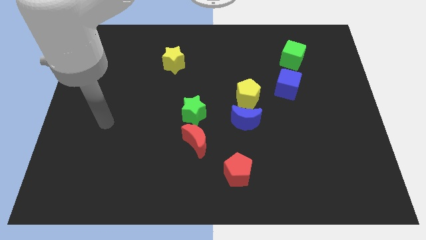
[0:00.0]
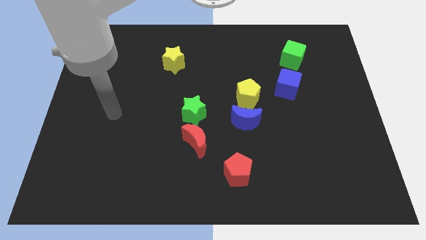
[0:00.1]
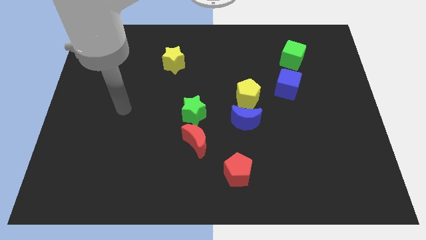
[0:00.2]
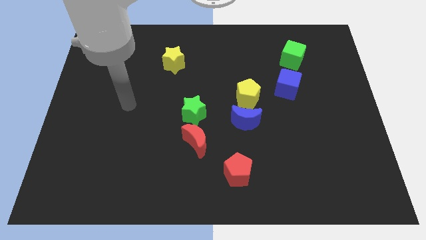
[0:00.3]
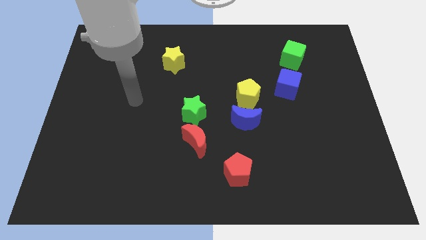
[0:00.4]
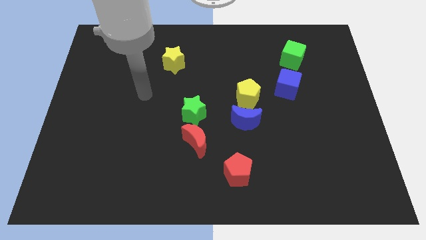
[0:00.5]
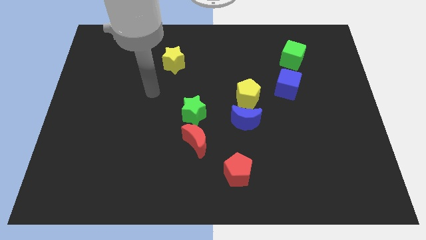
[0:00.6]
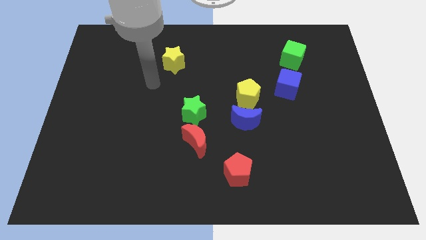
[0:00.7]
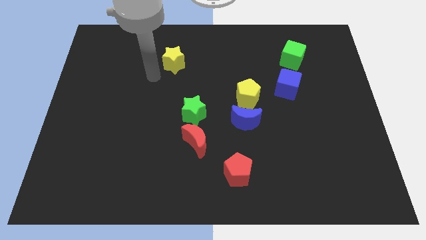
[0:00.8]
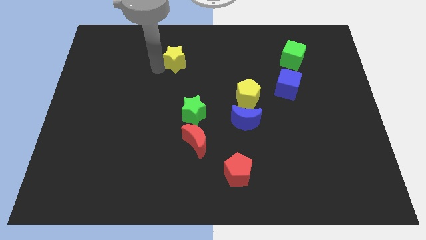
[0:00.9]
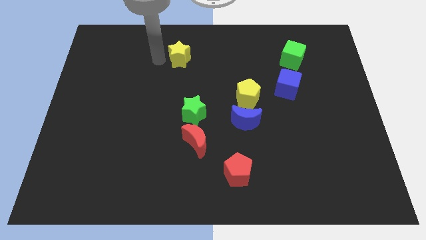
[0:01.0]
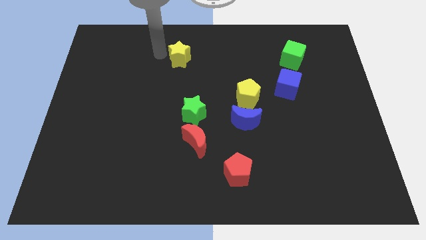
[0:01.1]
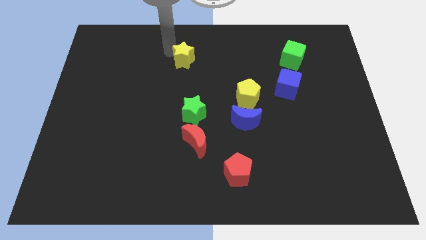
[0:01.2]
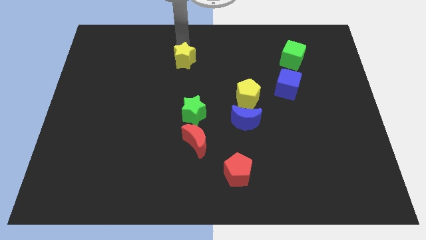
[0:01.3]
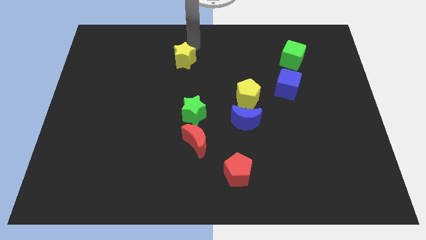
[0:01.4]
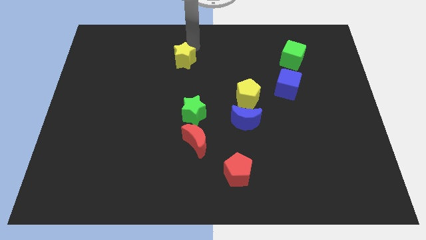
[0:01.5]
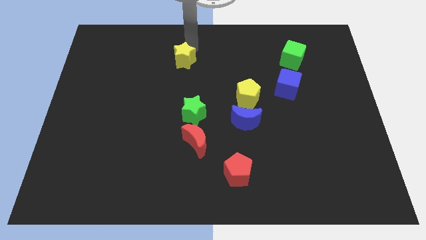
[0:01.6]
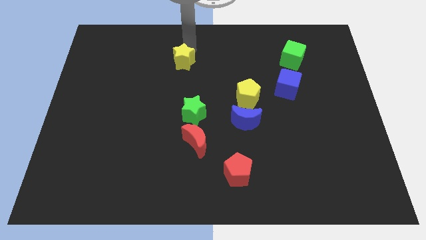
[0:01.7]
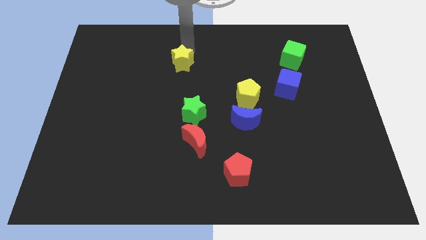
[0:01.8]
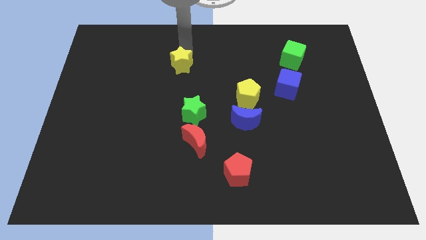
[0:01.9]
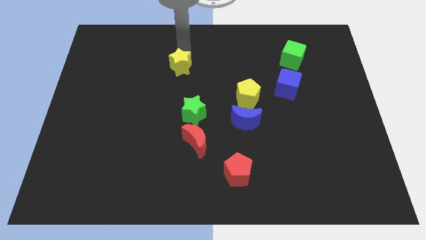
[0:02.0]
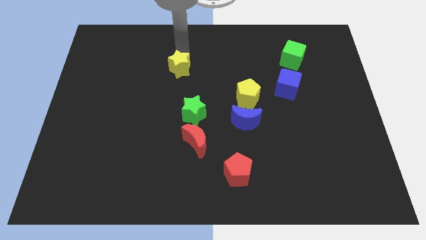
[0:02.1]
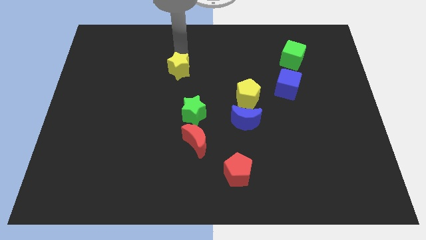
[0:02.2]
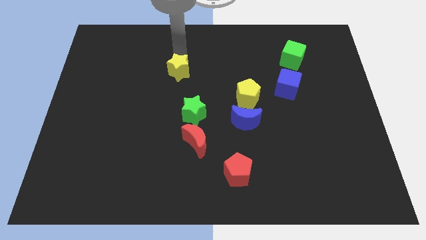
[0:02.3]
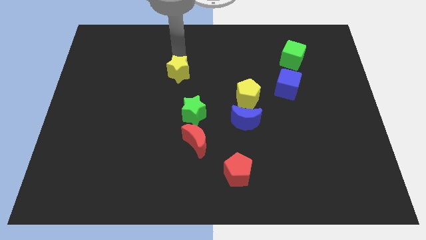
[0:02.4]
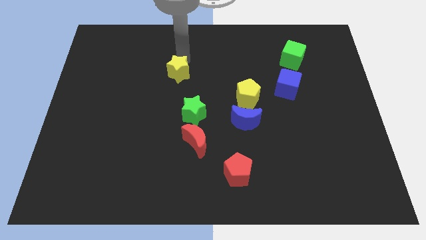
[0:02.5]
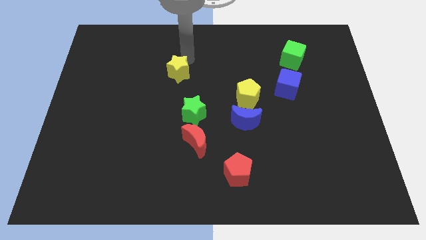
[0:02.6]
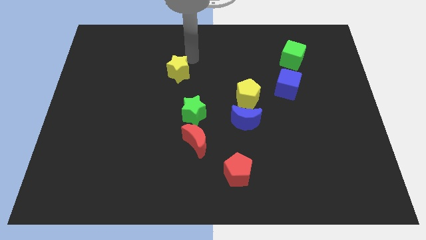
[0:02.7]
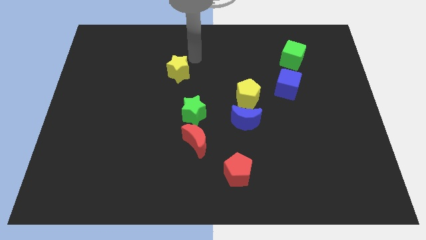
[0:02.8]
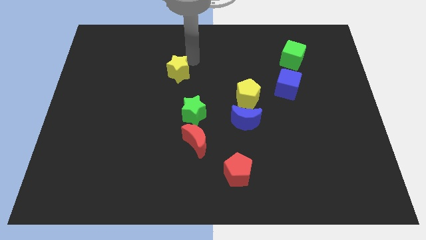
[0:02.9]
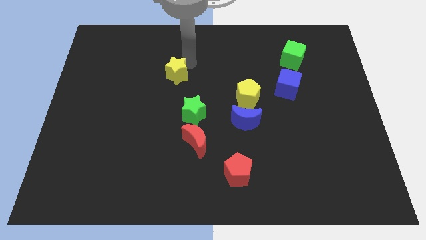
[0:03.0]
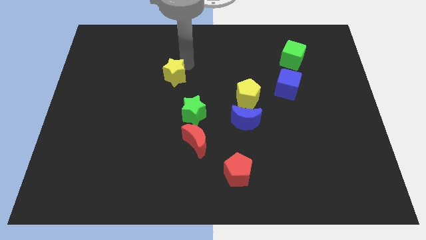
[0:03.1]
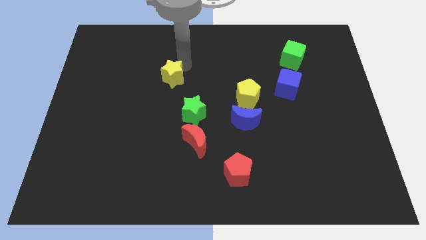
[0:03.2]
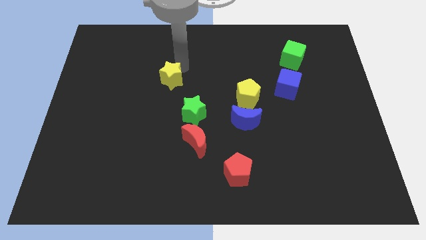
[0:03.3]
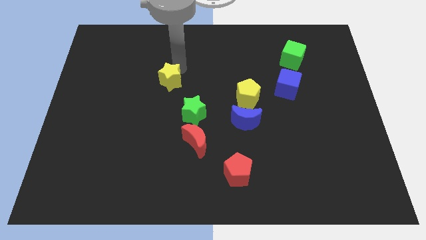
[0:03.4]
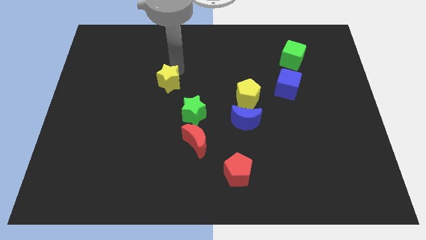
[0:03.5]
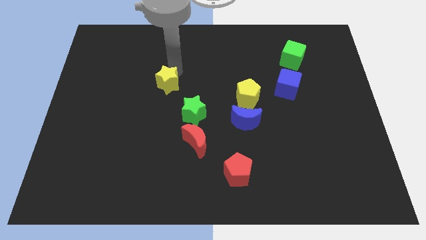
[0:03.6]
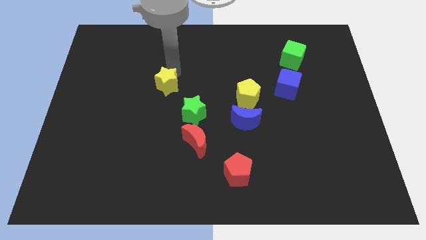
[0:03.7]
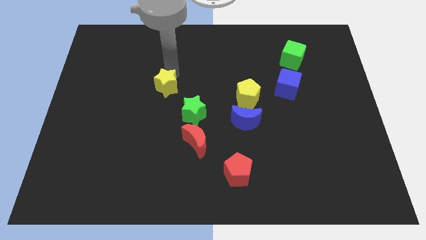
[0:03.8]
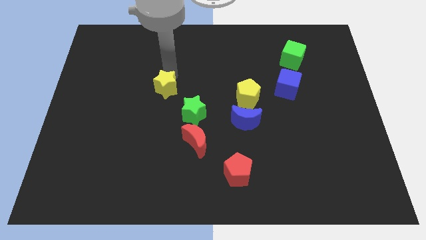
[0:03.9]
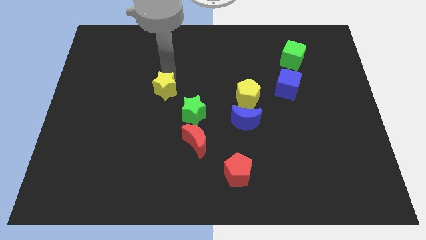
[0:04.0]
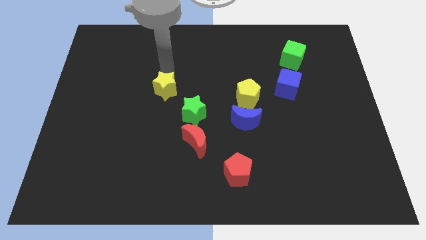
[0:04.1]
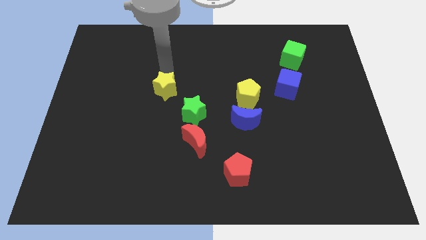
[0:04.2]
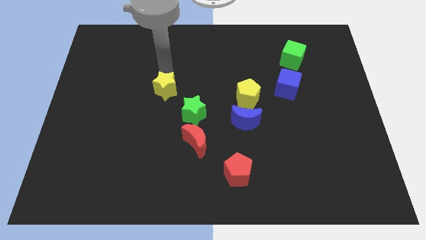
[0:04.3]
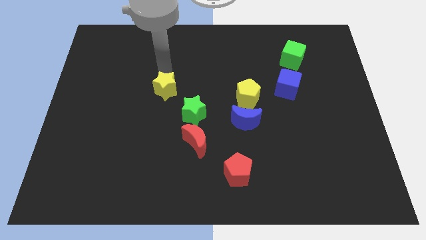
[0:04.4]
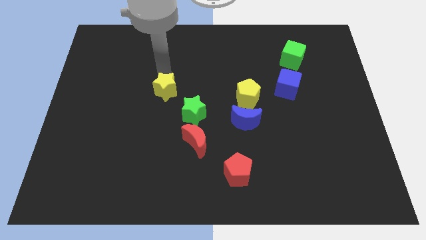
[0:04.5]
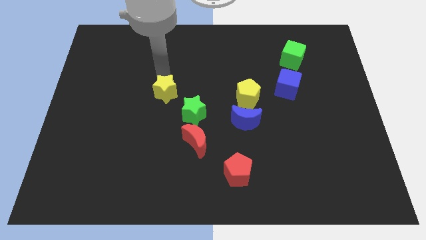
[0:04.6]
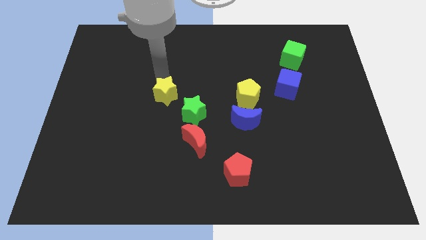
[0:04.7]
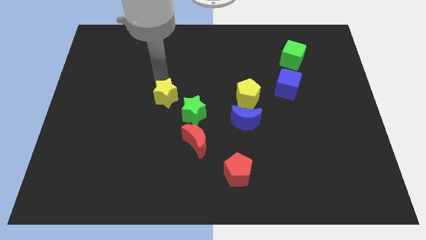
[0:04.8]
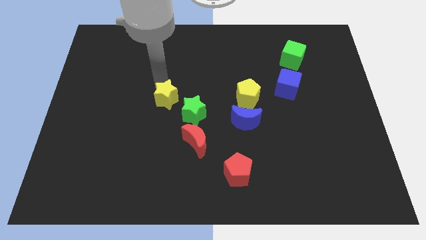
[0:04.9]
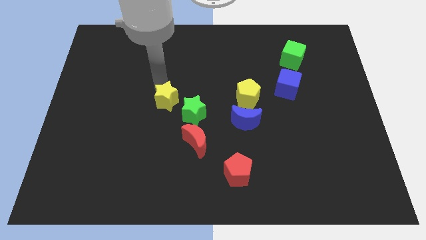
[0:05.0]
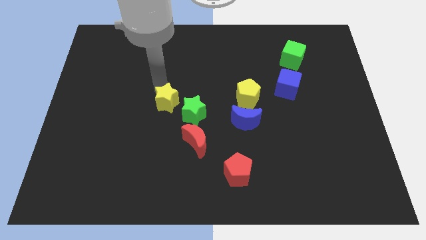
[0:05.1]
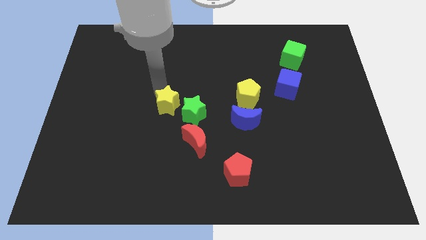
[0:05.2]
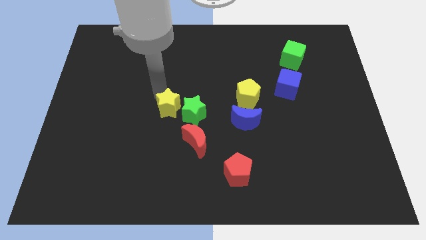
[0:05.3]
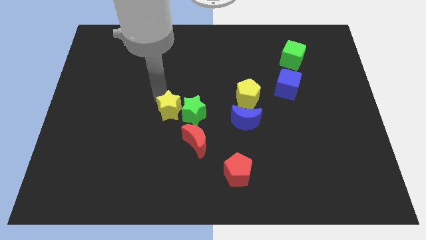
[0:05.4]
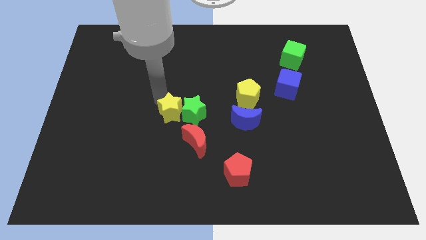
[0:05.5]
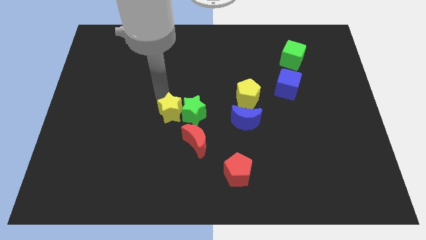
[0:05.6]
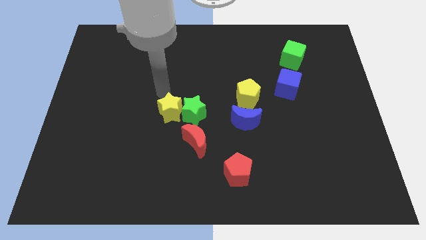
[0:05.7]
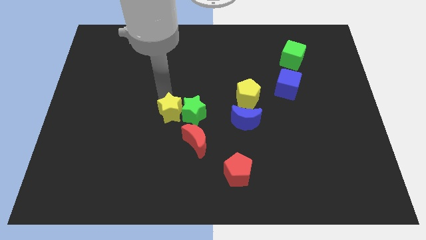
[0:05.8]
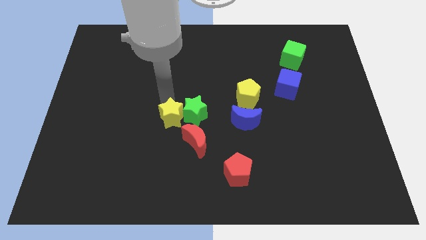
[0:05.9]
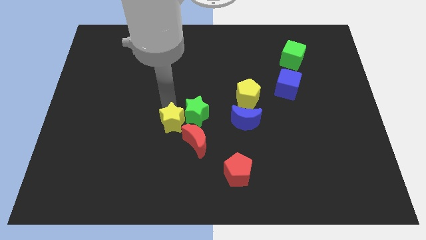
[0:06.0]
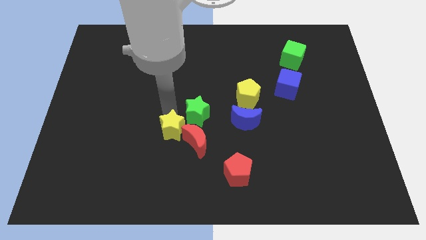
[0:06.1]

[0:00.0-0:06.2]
slide the yellow star towards the red moon

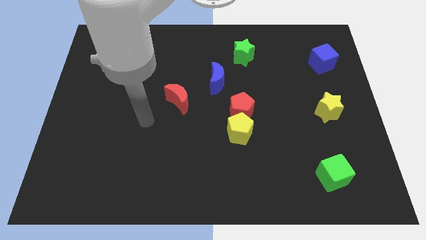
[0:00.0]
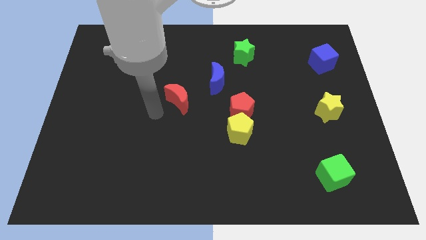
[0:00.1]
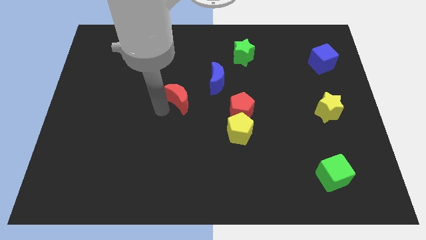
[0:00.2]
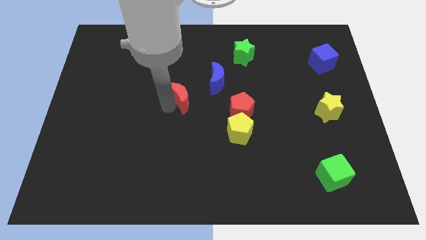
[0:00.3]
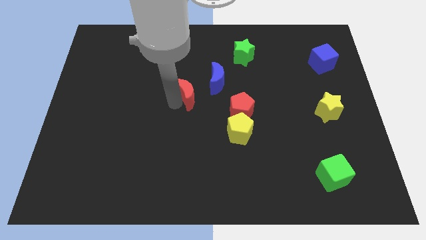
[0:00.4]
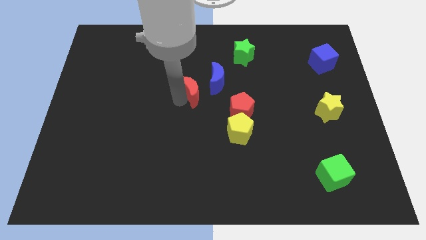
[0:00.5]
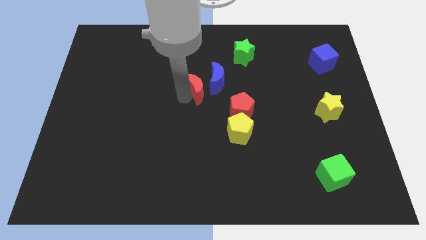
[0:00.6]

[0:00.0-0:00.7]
put the red moon next to the blue moon
